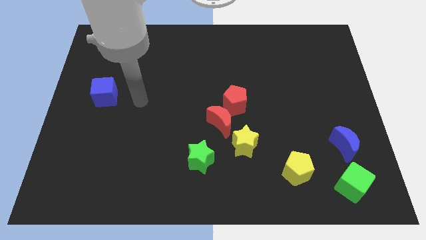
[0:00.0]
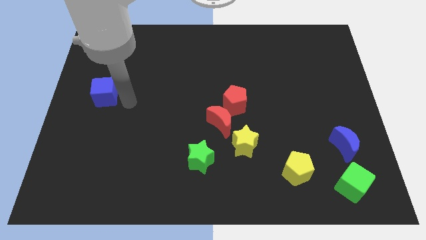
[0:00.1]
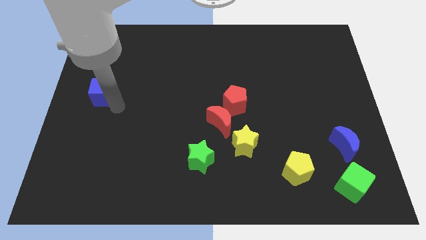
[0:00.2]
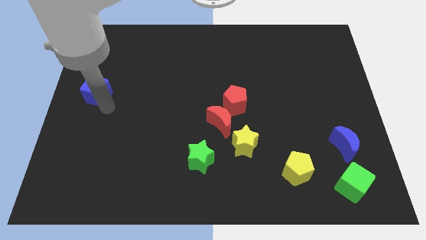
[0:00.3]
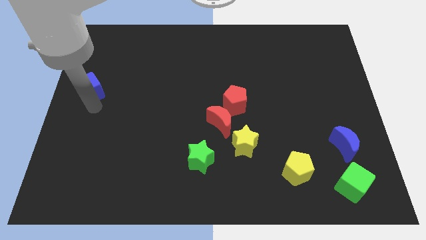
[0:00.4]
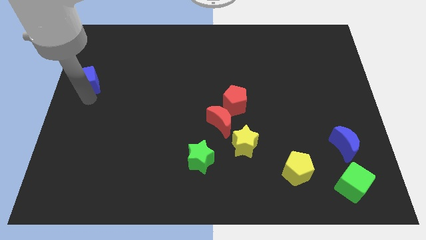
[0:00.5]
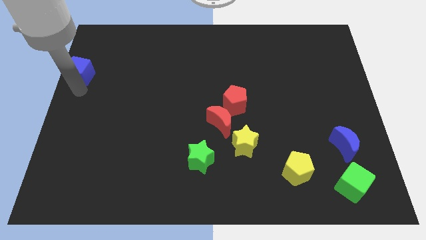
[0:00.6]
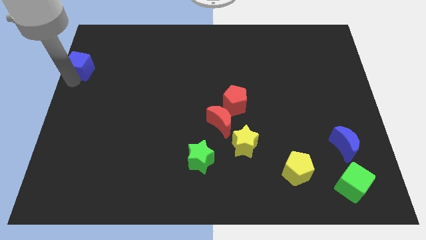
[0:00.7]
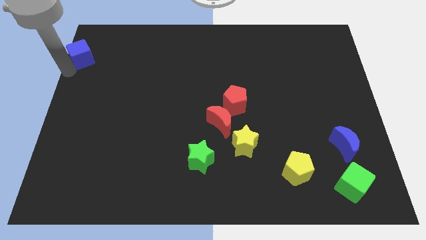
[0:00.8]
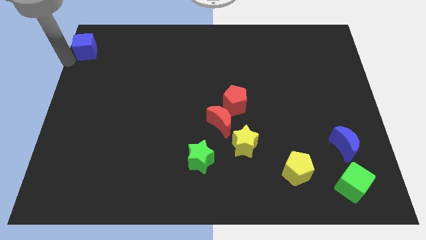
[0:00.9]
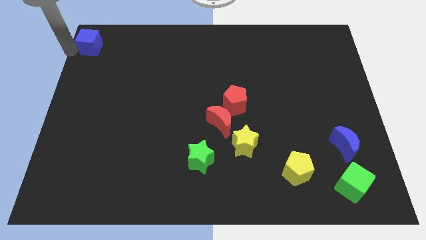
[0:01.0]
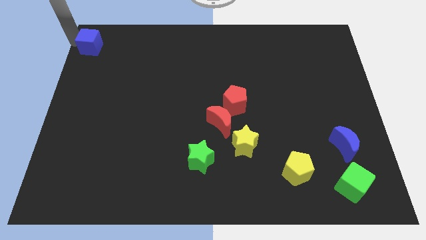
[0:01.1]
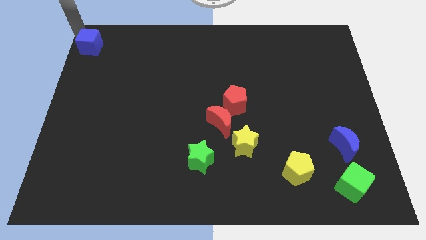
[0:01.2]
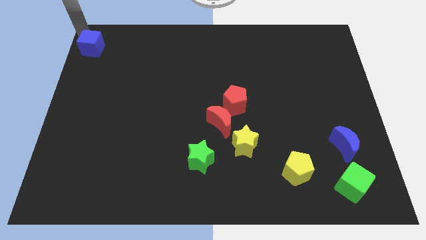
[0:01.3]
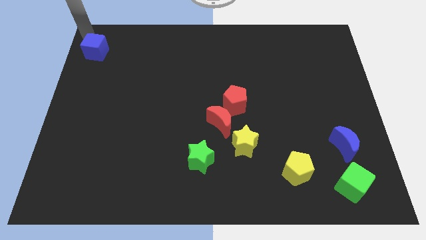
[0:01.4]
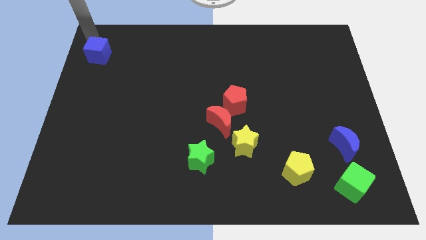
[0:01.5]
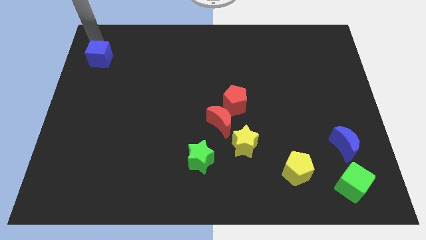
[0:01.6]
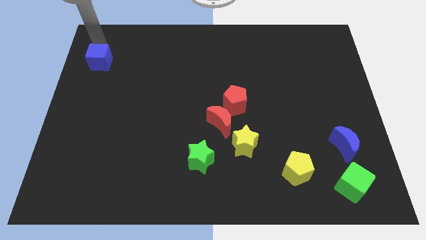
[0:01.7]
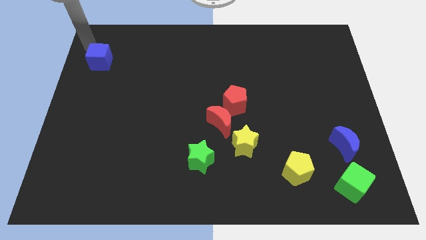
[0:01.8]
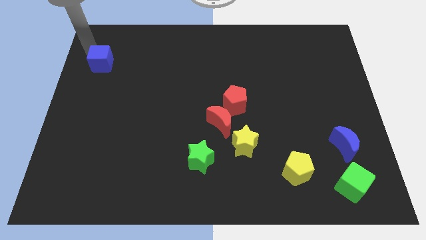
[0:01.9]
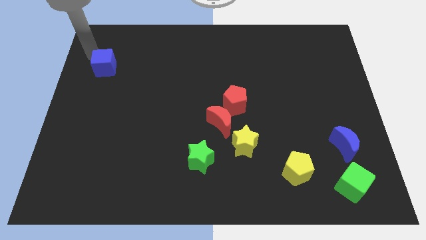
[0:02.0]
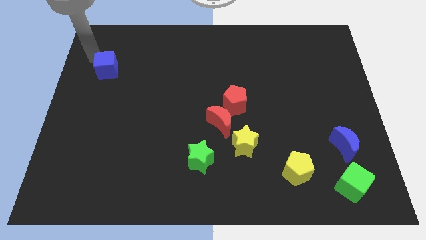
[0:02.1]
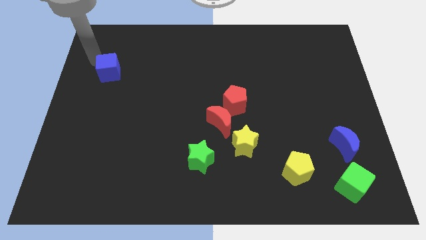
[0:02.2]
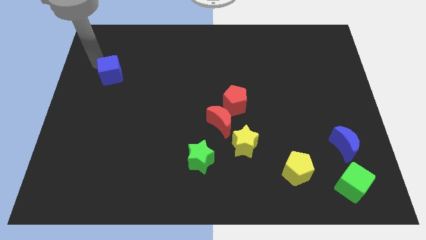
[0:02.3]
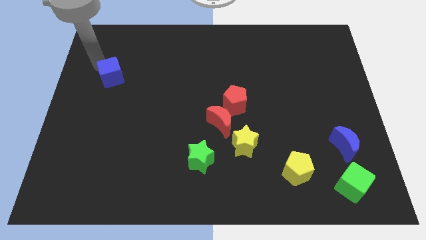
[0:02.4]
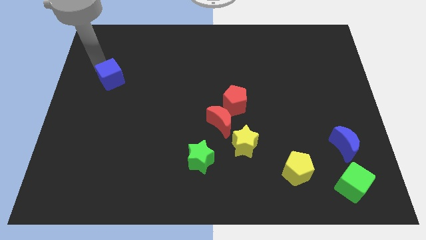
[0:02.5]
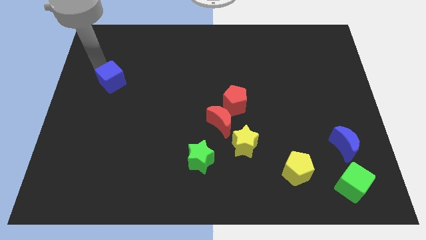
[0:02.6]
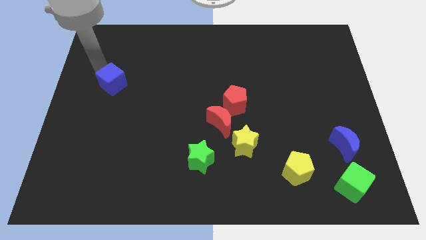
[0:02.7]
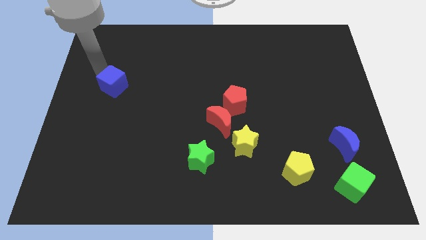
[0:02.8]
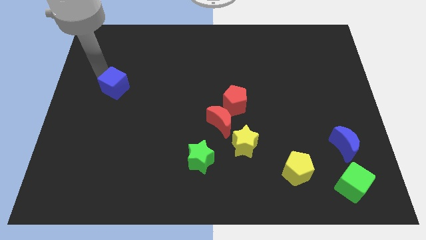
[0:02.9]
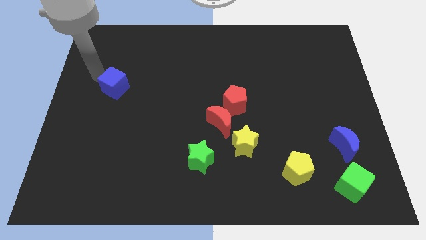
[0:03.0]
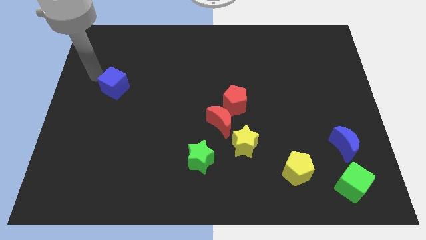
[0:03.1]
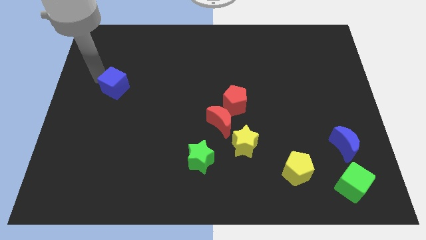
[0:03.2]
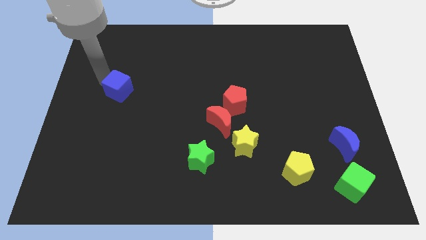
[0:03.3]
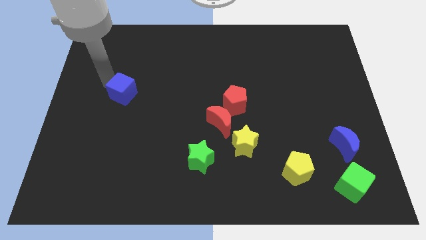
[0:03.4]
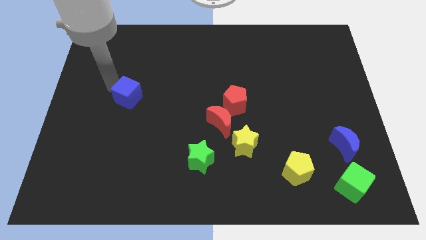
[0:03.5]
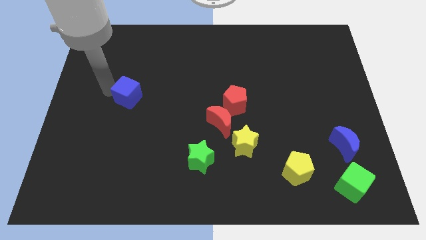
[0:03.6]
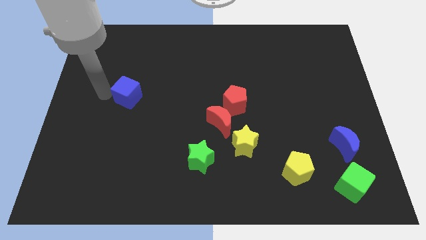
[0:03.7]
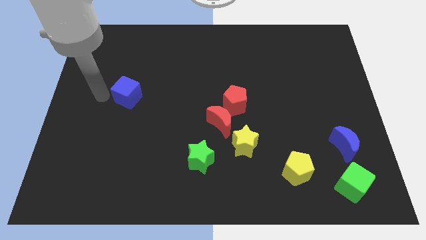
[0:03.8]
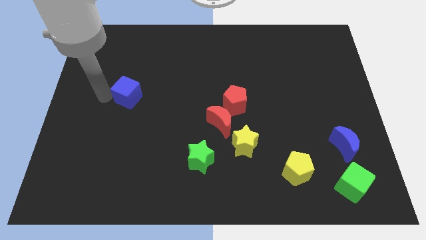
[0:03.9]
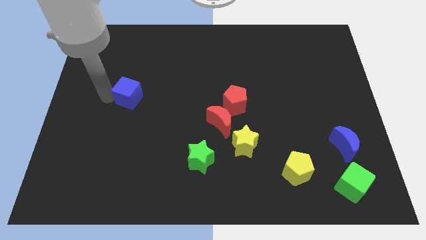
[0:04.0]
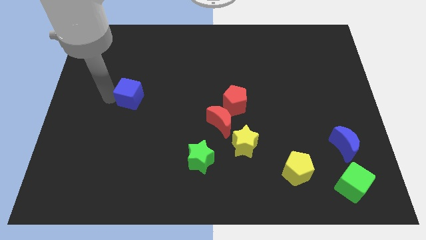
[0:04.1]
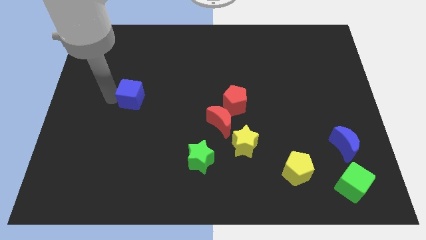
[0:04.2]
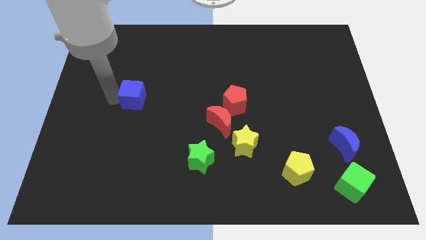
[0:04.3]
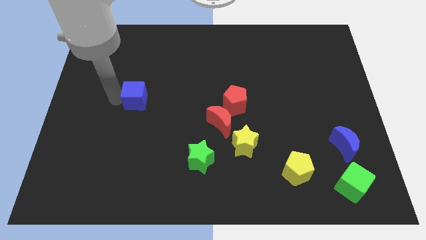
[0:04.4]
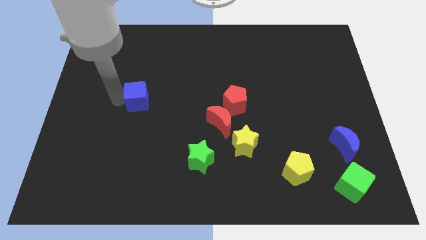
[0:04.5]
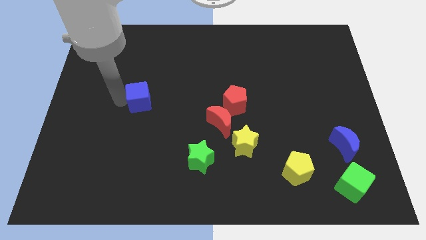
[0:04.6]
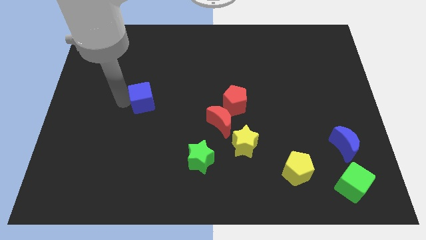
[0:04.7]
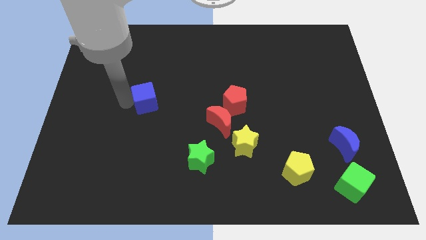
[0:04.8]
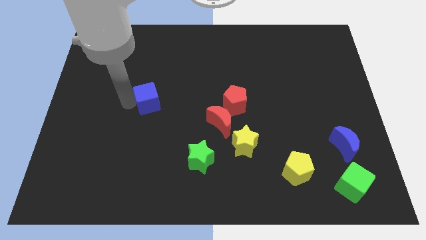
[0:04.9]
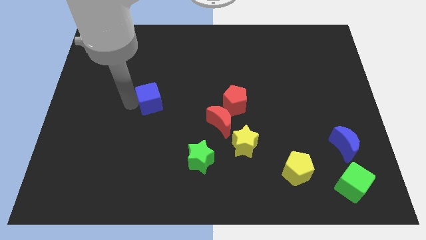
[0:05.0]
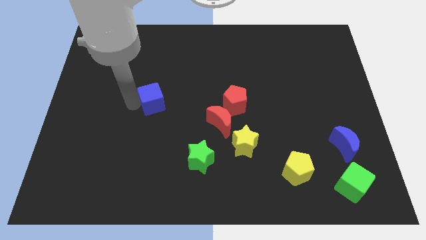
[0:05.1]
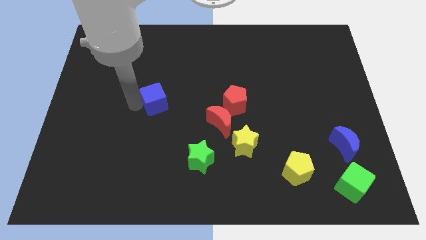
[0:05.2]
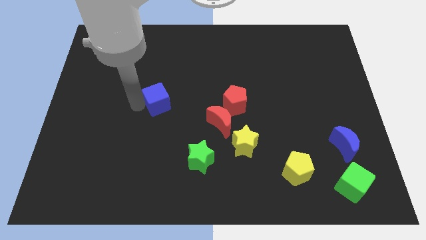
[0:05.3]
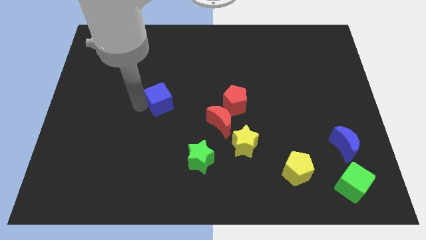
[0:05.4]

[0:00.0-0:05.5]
slide the blue cube to the middle

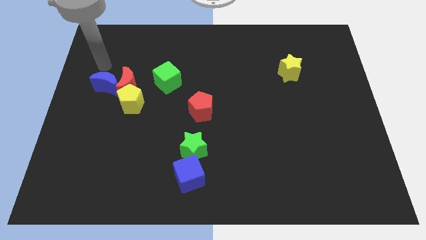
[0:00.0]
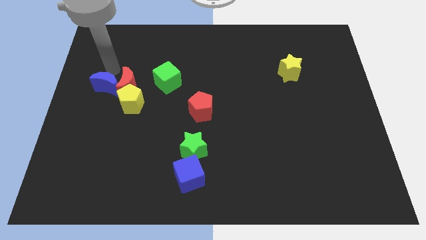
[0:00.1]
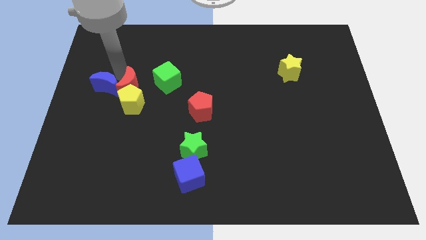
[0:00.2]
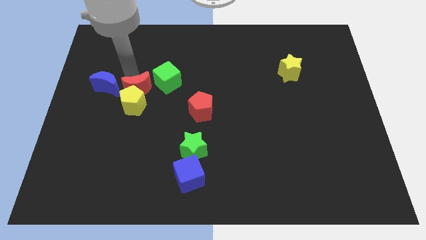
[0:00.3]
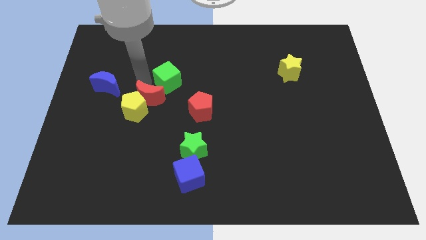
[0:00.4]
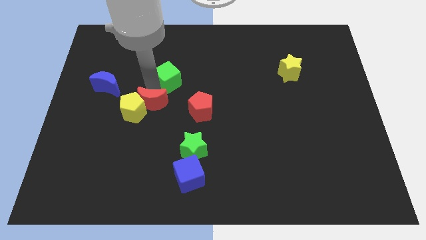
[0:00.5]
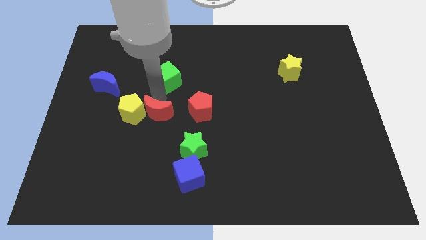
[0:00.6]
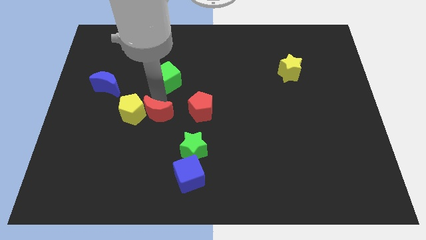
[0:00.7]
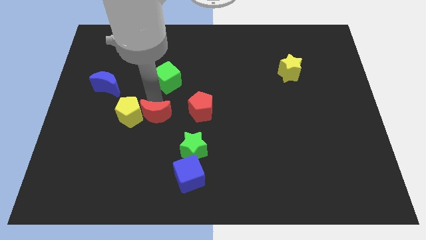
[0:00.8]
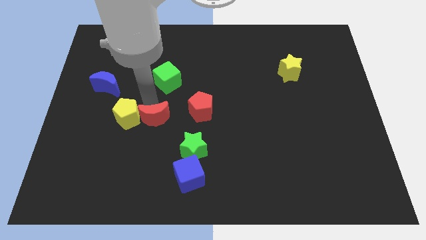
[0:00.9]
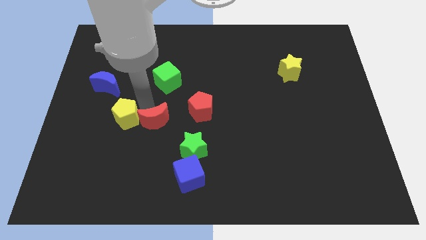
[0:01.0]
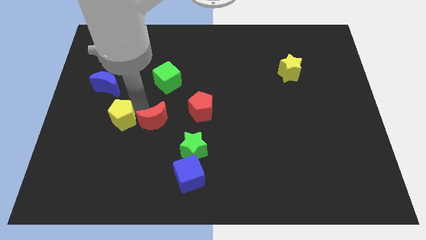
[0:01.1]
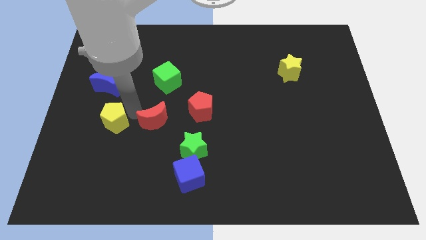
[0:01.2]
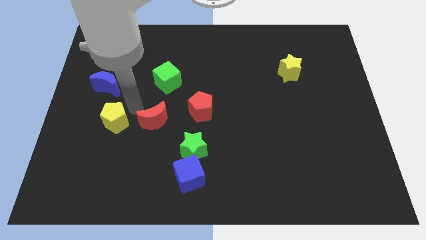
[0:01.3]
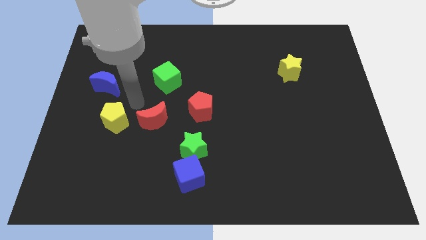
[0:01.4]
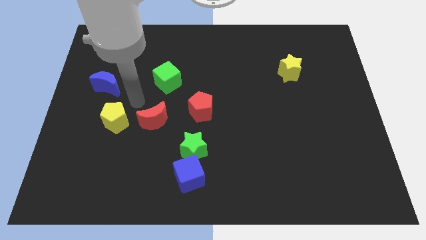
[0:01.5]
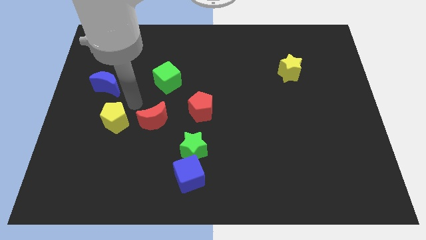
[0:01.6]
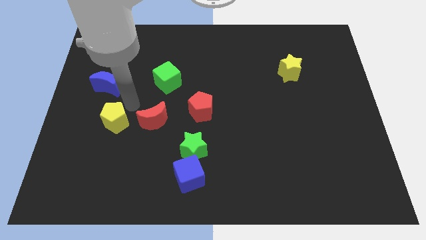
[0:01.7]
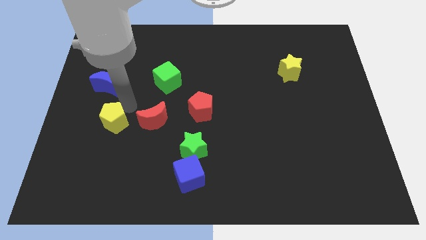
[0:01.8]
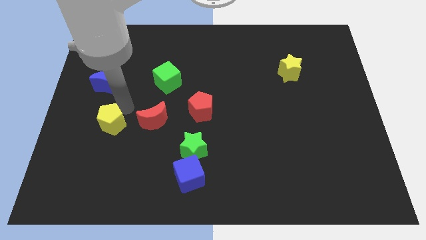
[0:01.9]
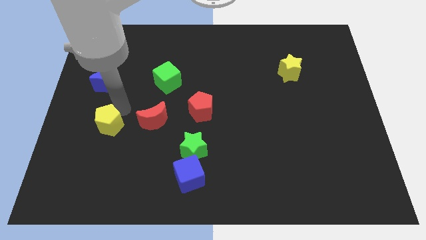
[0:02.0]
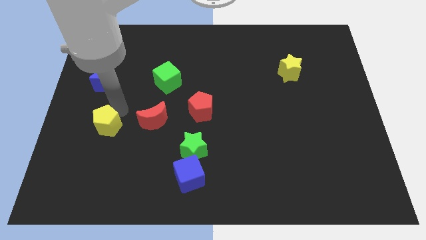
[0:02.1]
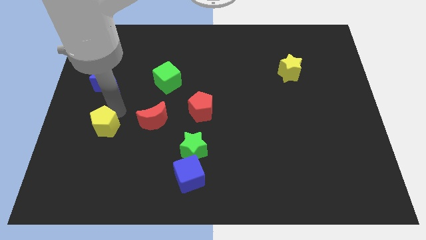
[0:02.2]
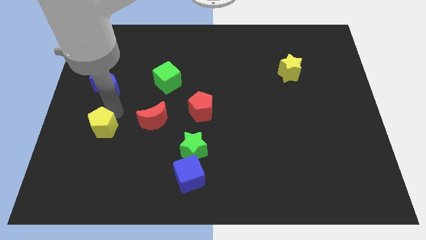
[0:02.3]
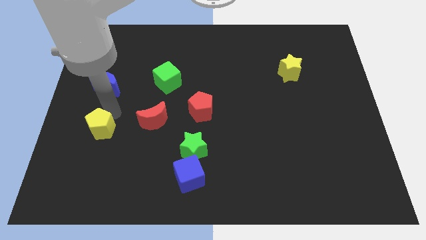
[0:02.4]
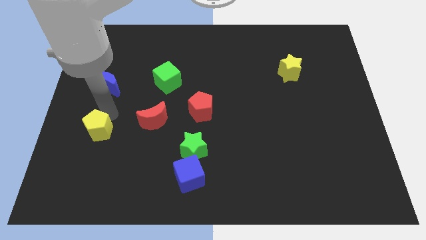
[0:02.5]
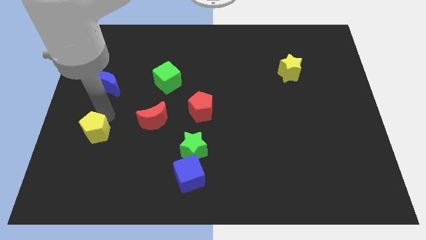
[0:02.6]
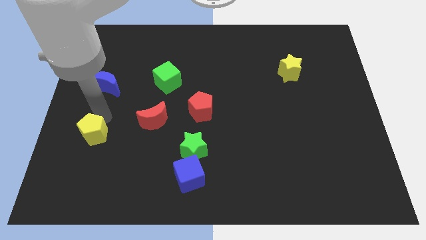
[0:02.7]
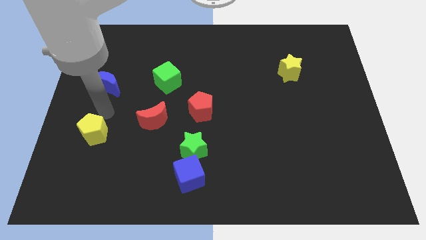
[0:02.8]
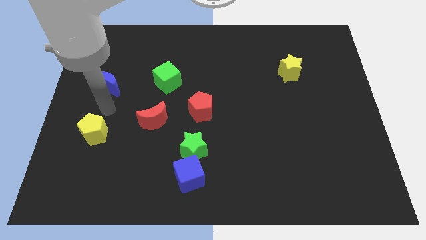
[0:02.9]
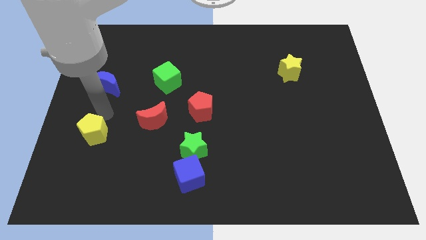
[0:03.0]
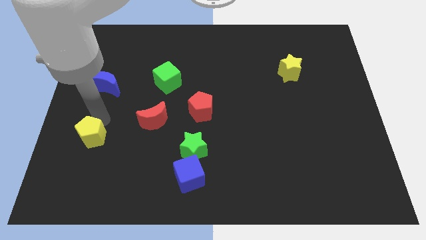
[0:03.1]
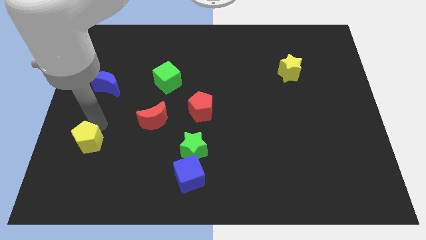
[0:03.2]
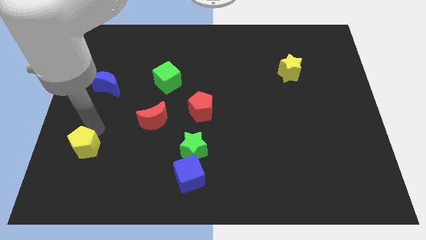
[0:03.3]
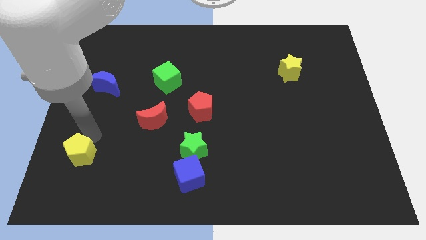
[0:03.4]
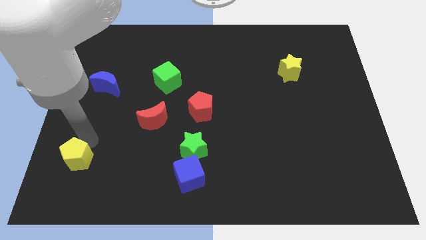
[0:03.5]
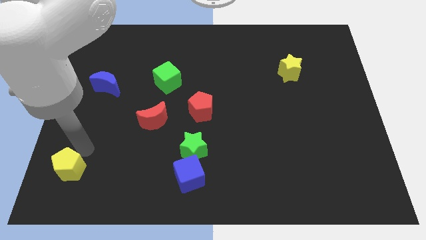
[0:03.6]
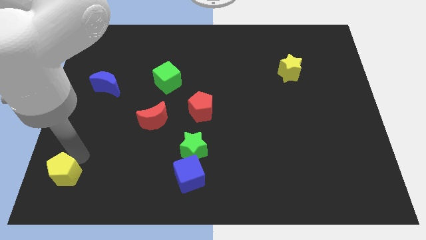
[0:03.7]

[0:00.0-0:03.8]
move the yellow pentagon to the bottom left of the board
